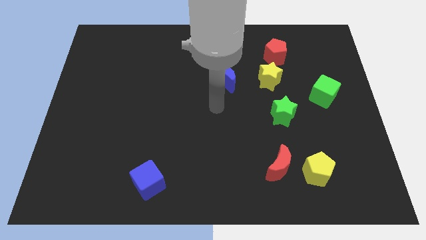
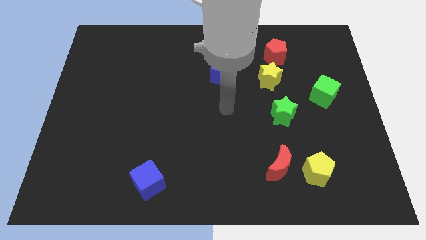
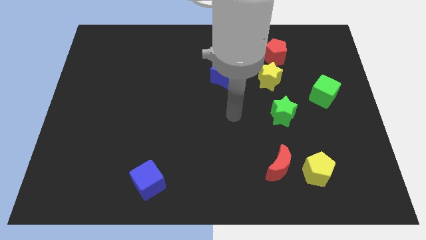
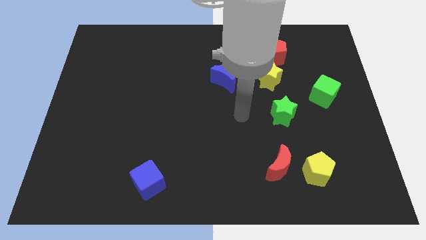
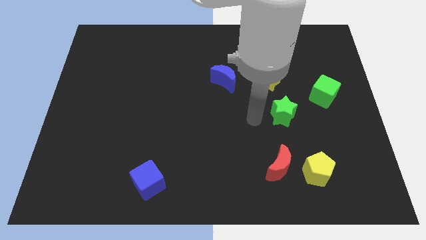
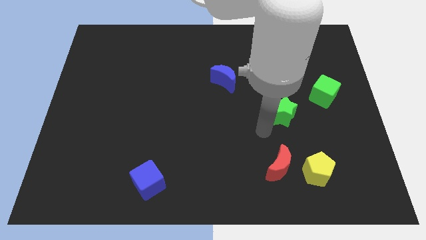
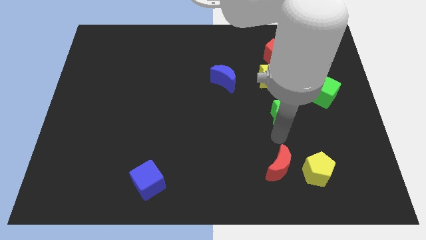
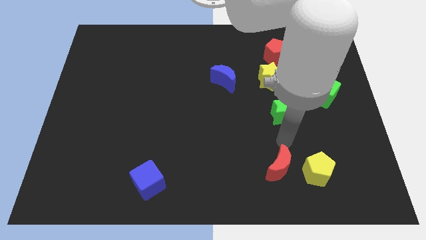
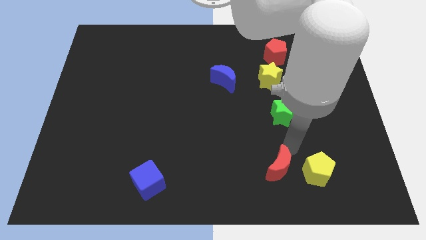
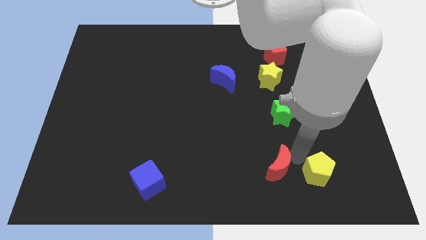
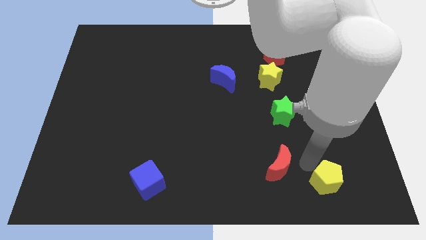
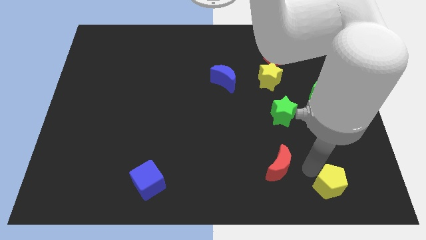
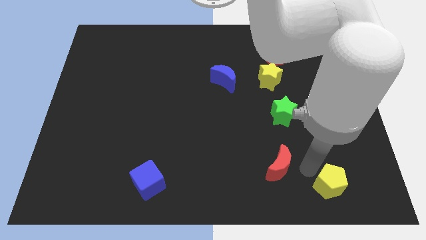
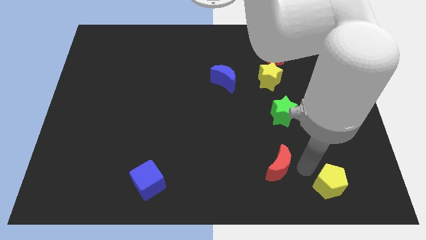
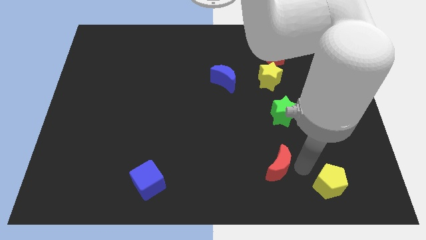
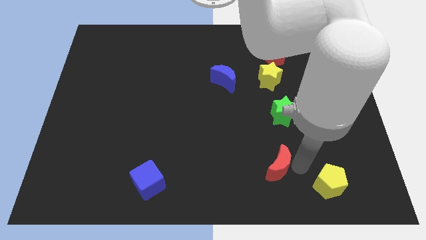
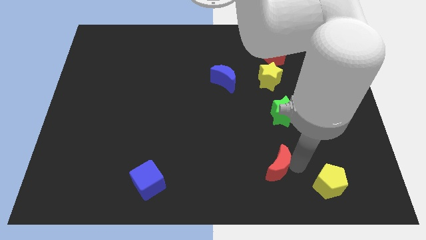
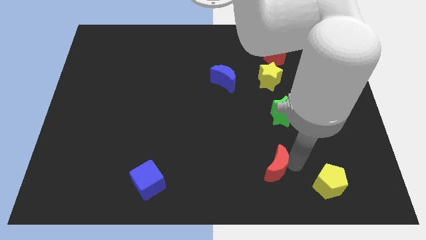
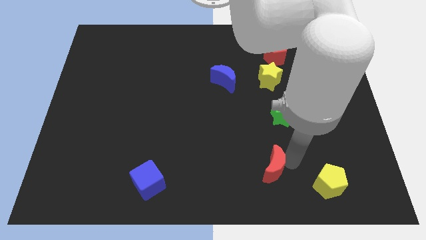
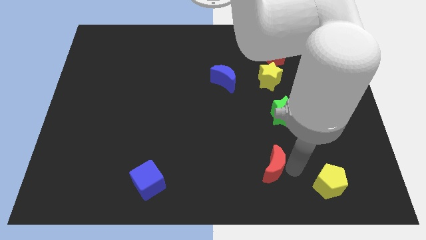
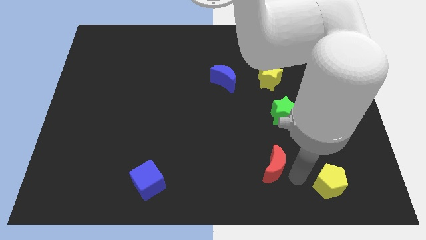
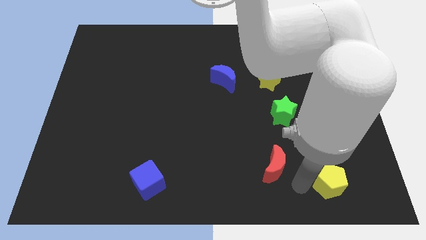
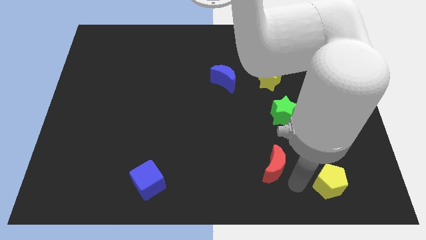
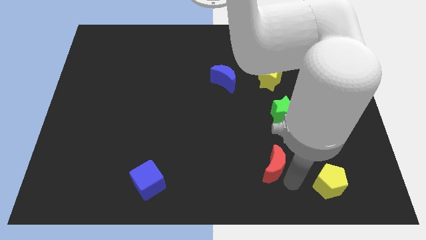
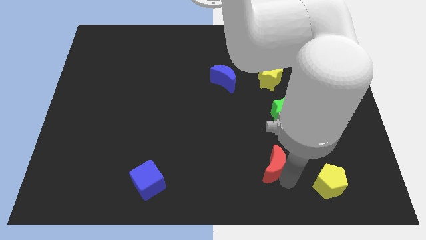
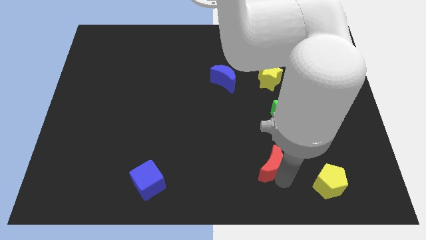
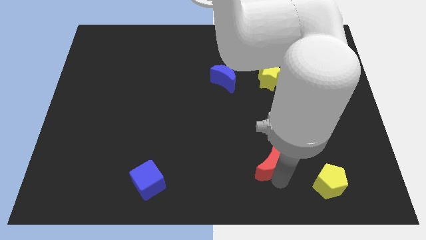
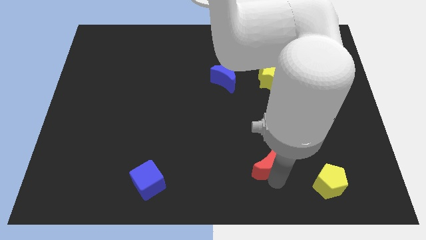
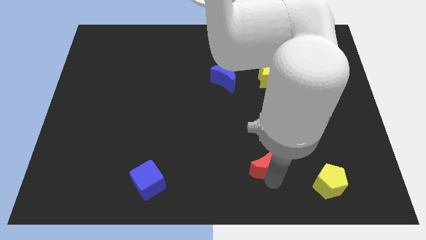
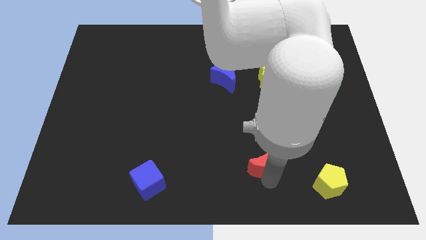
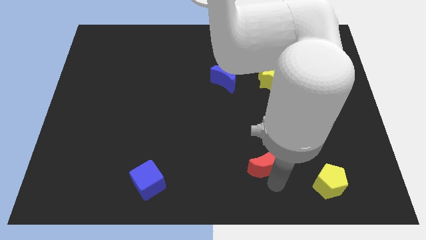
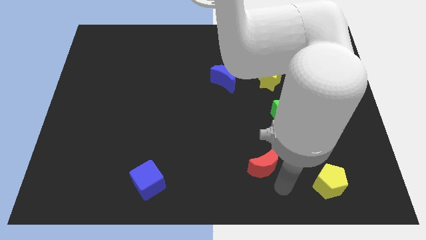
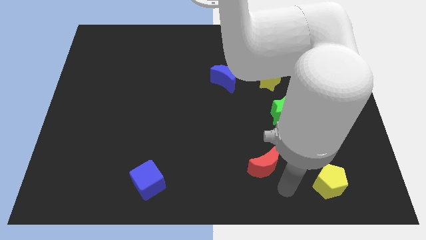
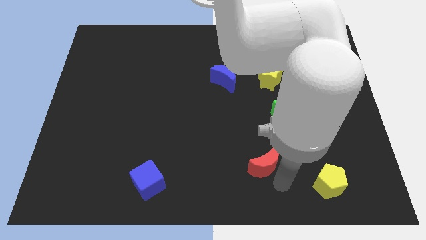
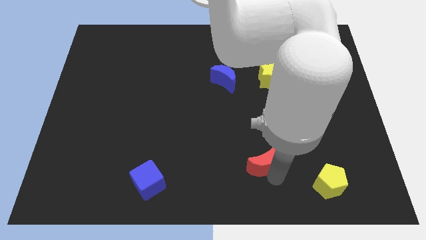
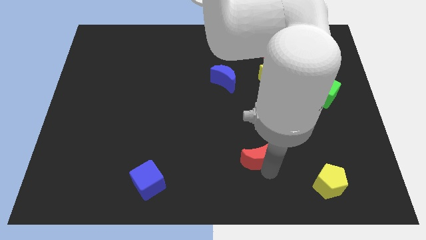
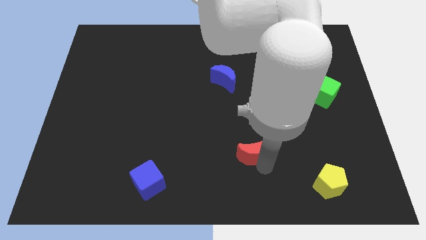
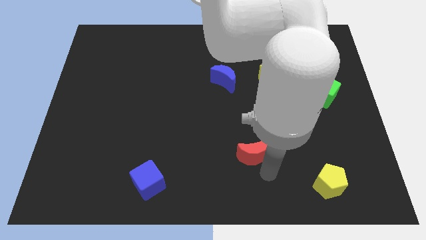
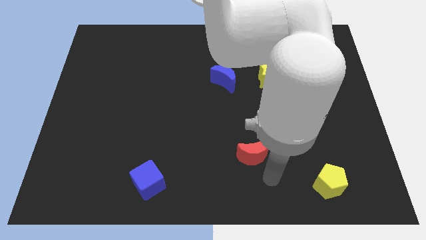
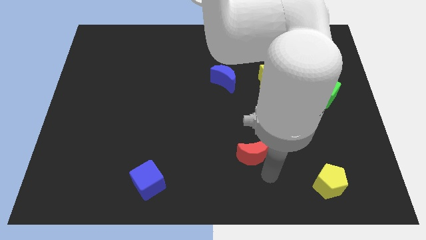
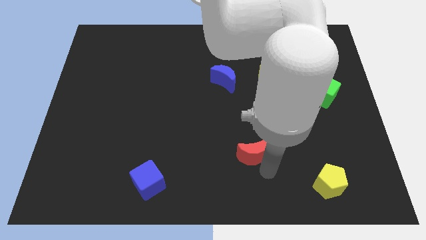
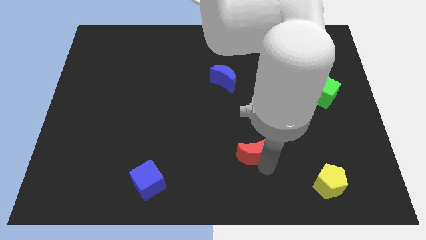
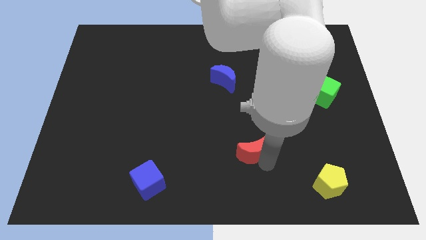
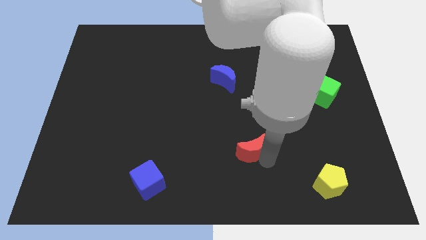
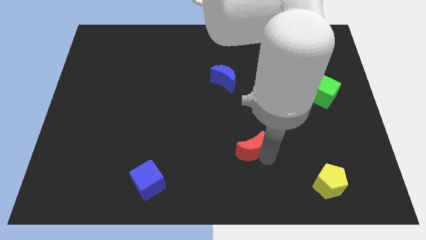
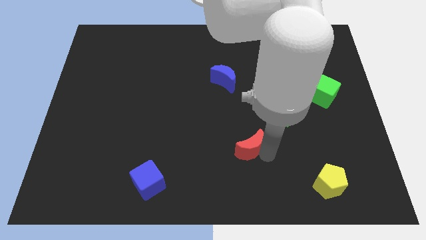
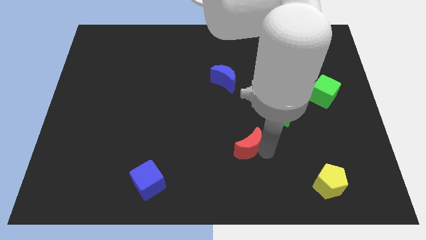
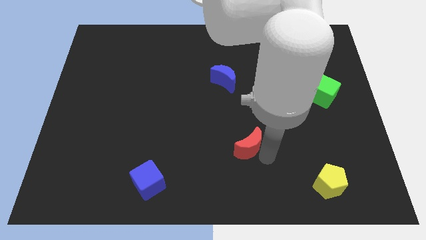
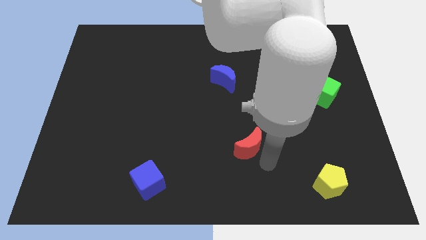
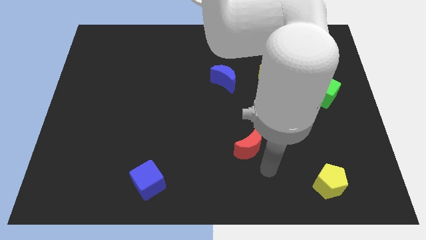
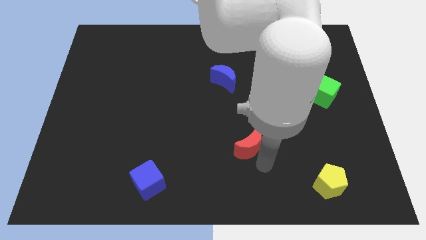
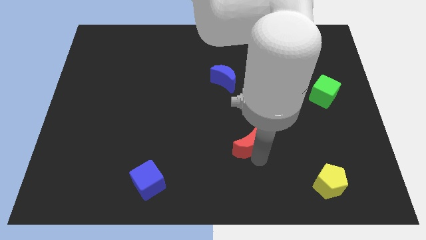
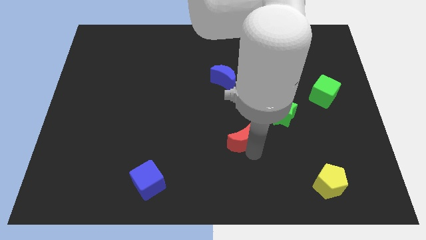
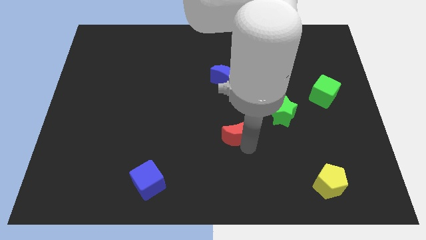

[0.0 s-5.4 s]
slide the red moon to the middle of the board

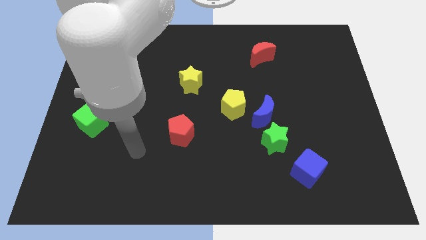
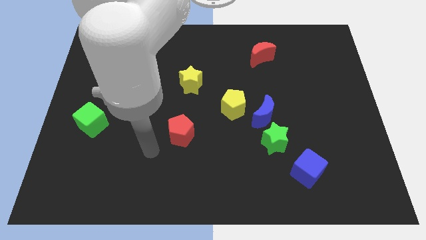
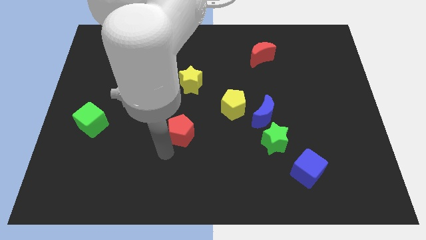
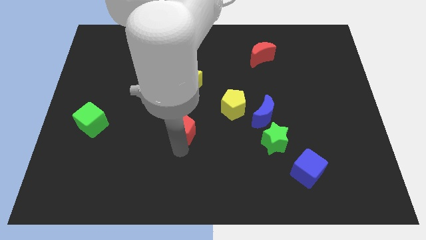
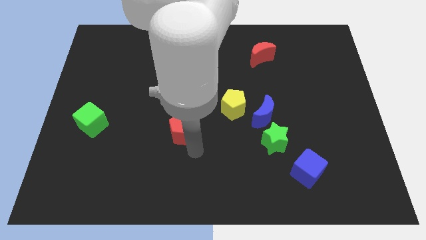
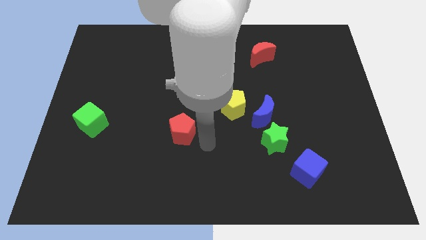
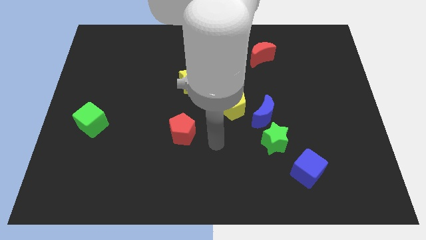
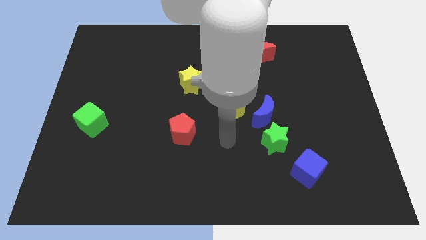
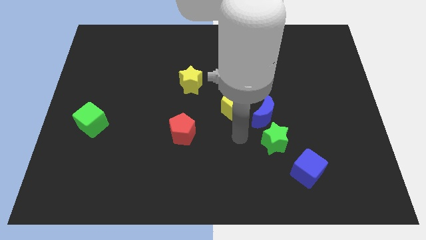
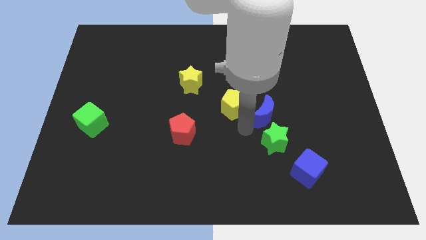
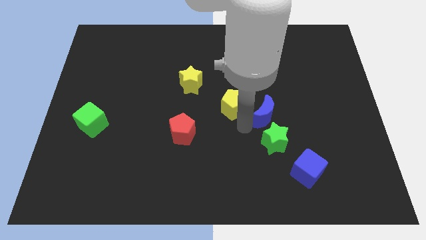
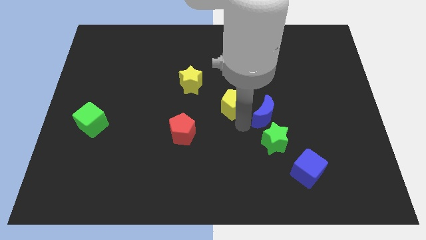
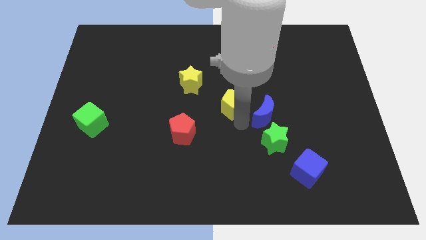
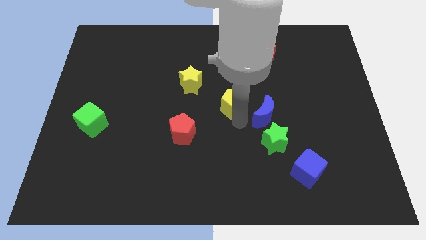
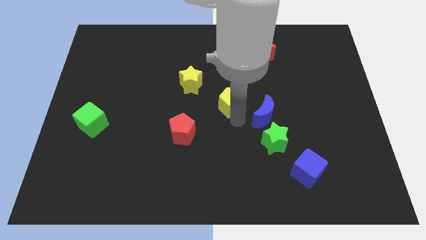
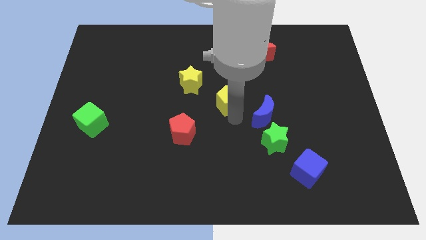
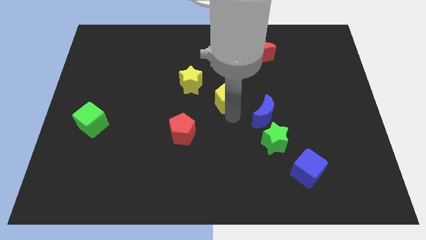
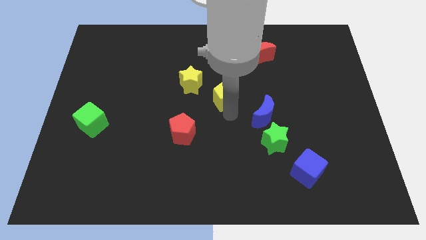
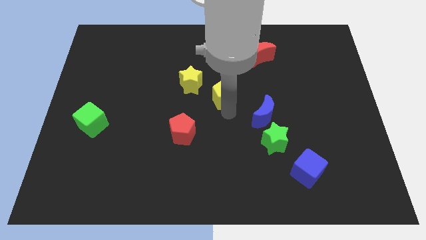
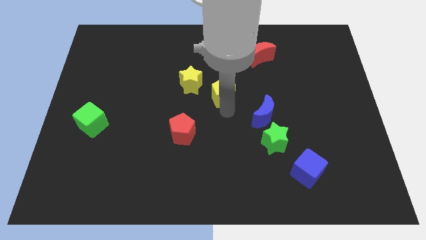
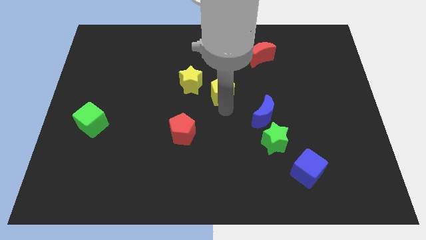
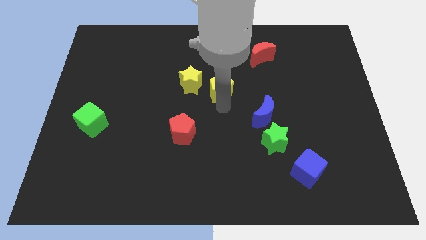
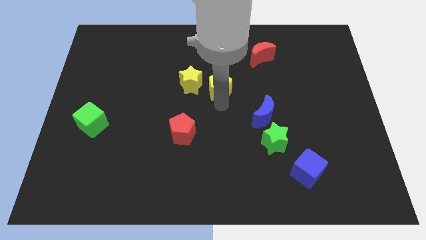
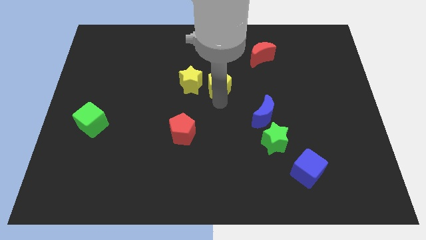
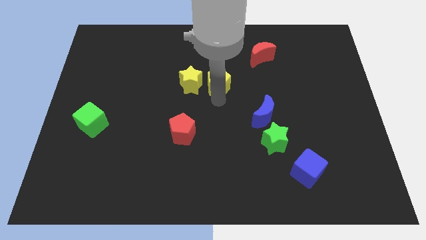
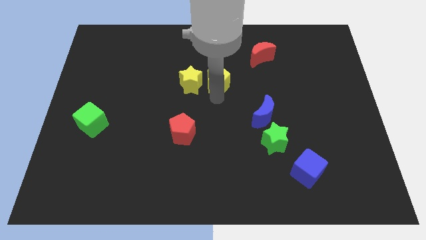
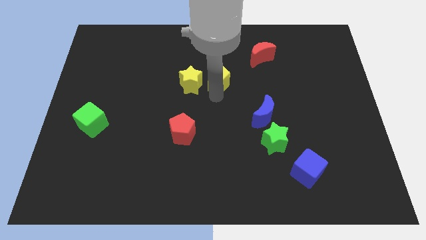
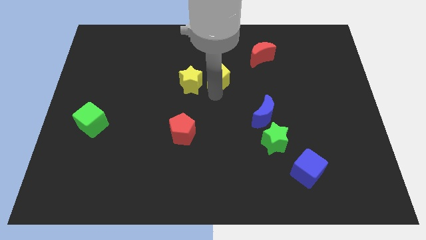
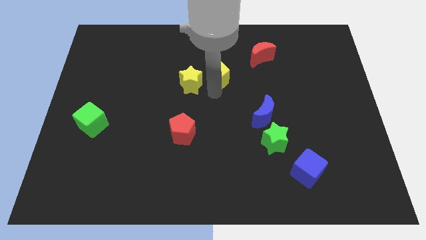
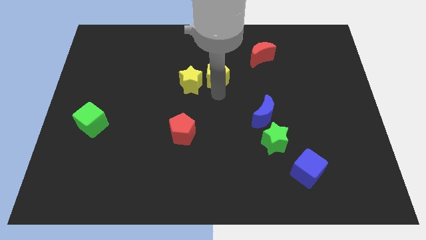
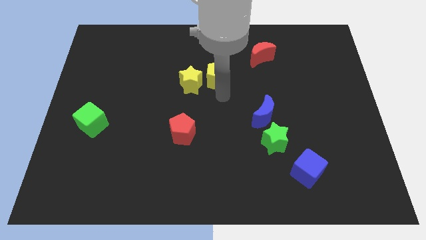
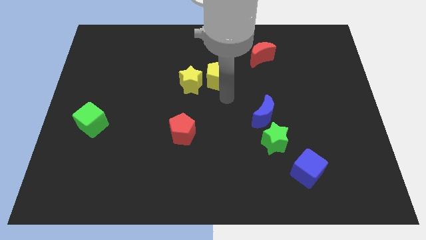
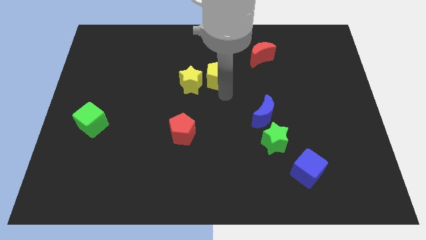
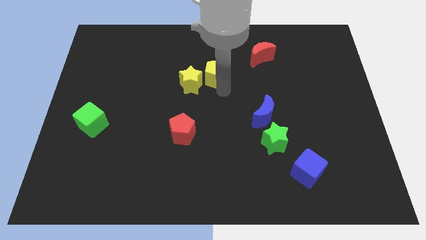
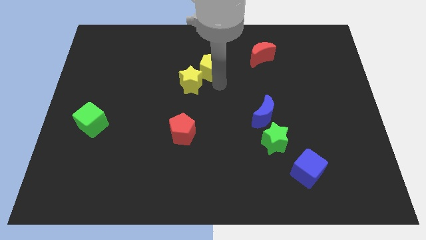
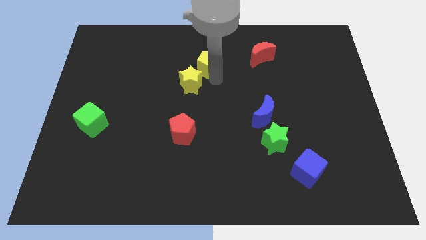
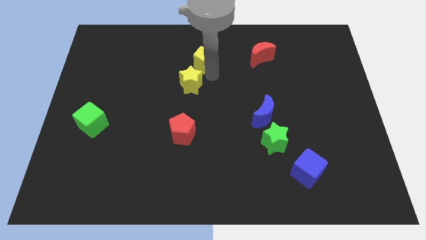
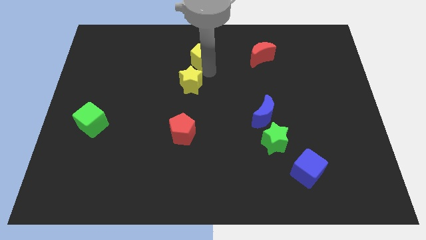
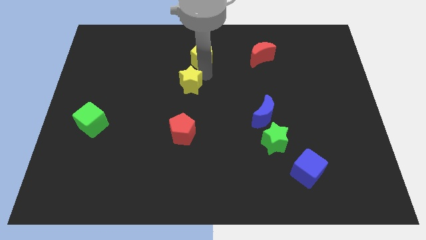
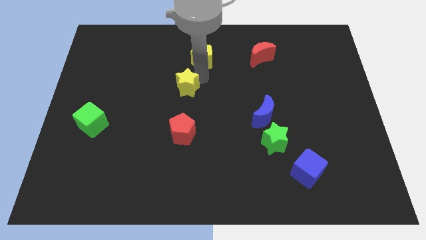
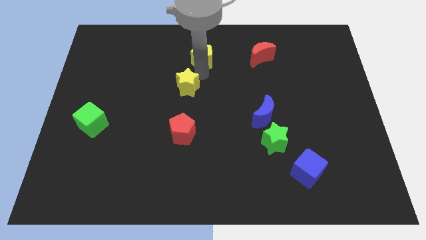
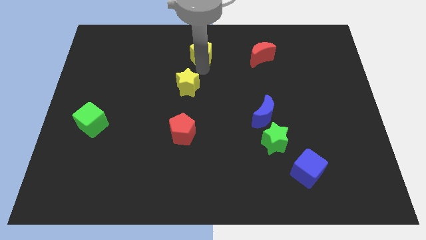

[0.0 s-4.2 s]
push the yellow pentagon to the top side
